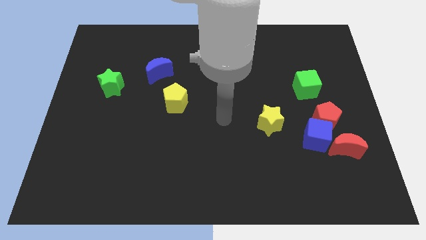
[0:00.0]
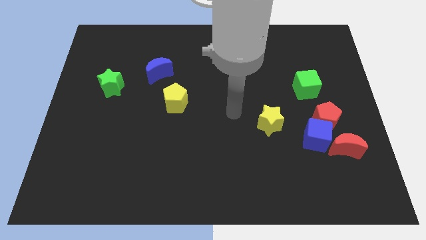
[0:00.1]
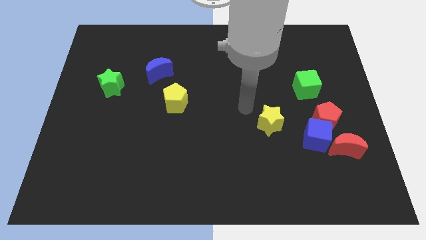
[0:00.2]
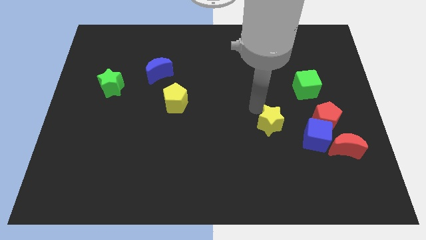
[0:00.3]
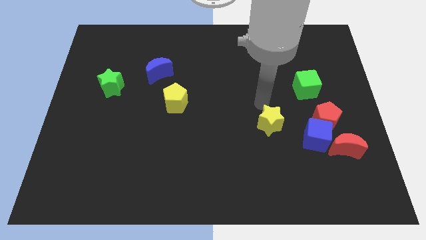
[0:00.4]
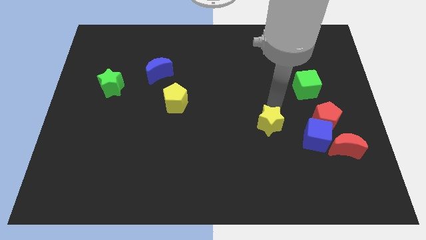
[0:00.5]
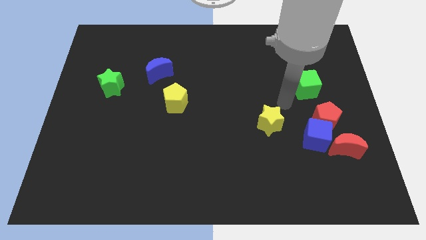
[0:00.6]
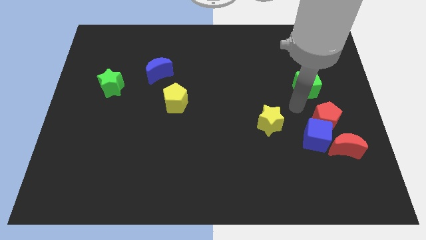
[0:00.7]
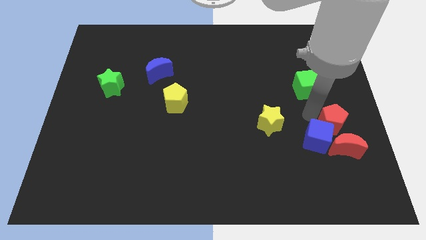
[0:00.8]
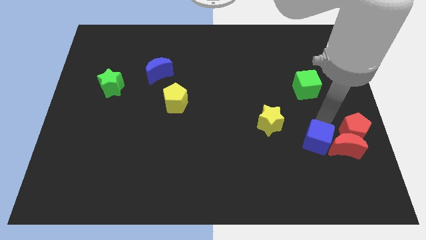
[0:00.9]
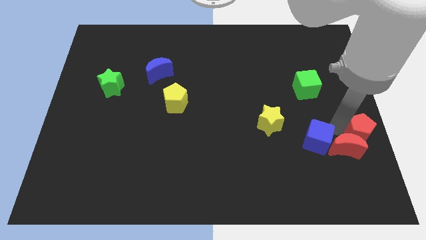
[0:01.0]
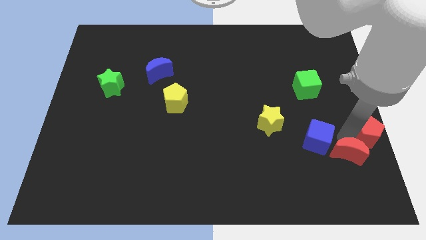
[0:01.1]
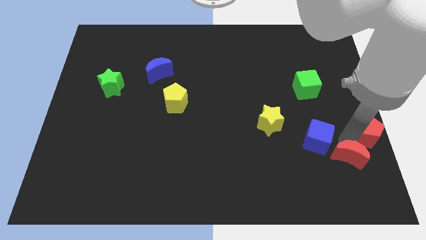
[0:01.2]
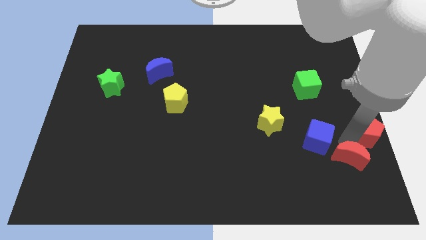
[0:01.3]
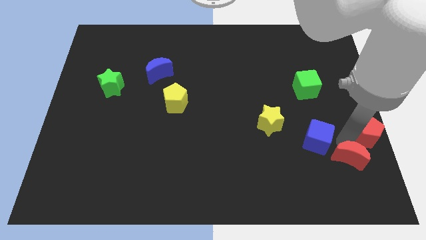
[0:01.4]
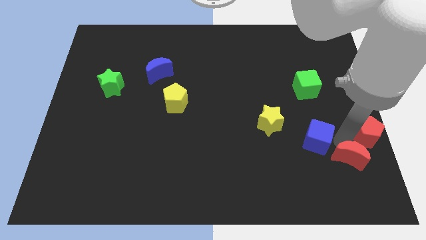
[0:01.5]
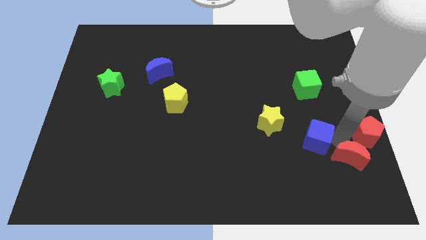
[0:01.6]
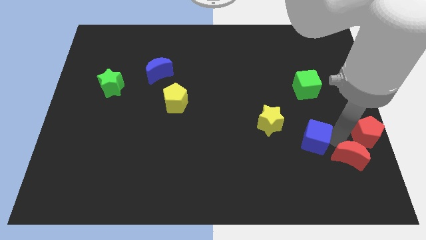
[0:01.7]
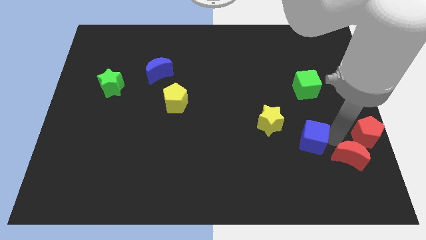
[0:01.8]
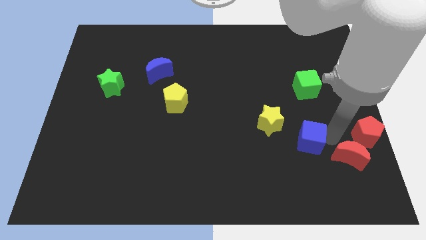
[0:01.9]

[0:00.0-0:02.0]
separate the blue cube from the red pentagon and red moon

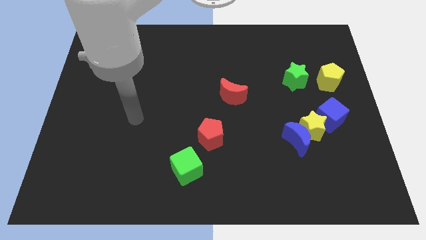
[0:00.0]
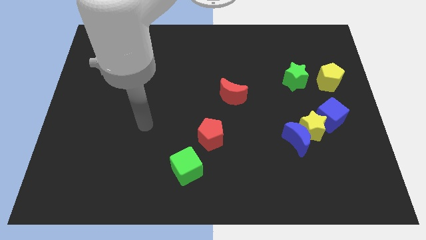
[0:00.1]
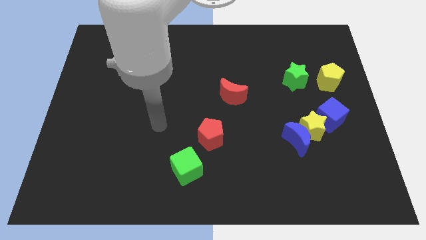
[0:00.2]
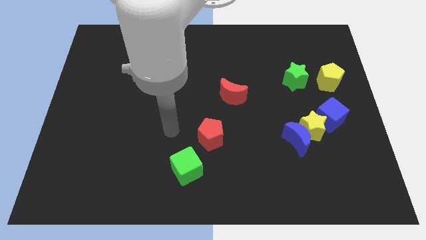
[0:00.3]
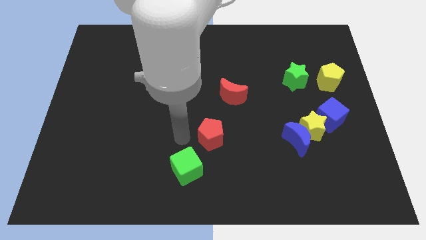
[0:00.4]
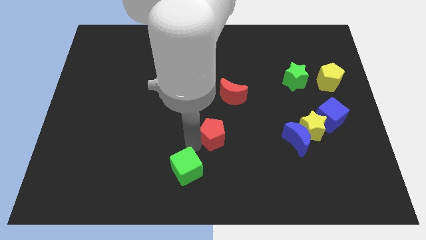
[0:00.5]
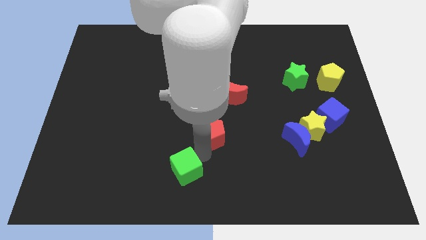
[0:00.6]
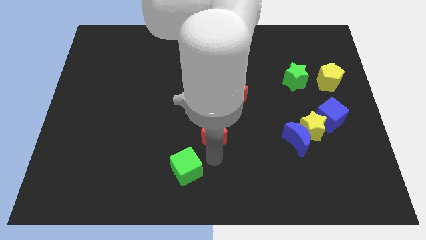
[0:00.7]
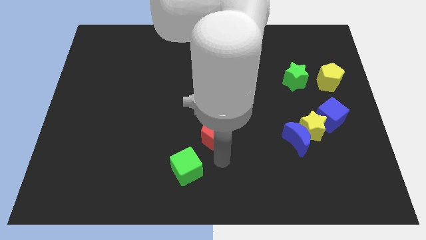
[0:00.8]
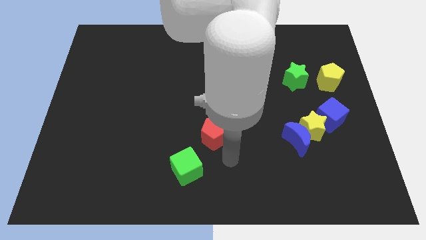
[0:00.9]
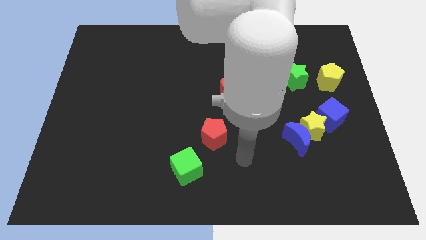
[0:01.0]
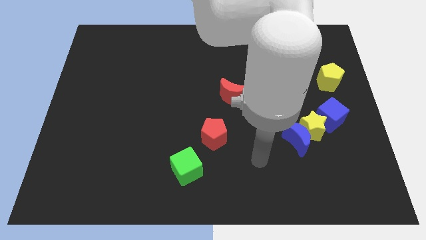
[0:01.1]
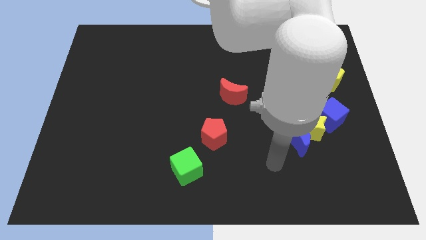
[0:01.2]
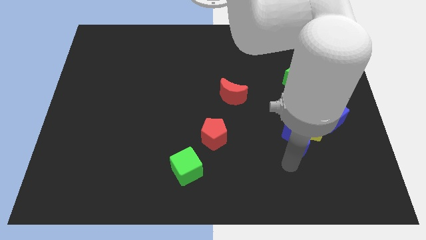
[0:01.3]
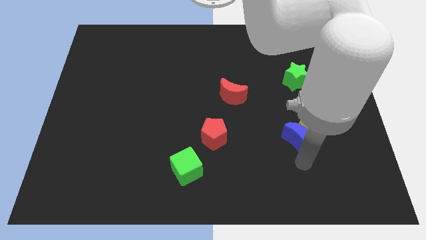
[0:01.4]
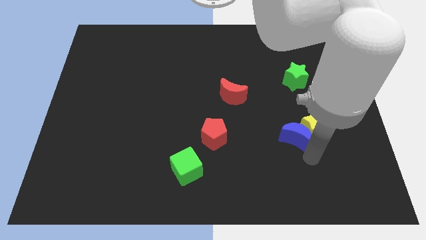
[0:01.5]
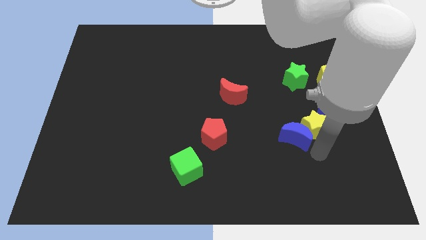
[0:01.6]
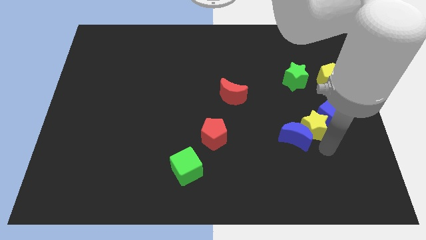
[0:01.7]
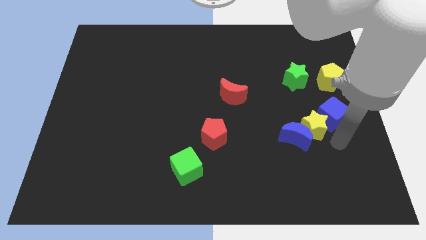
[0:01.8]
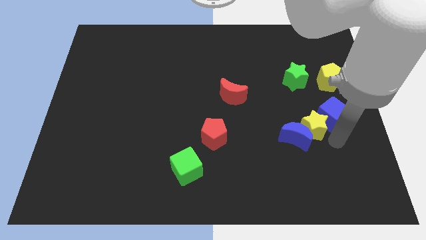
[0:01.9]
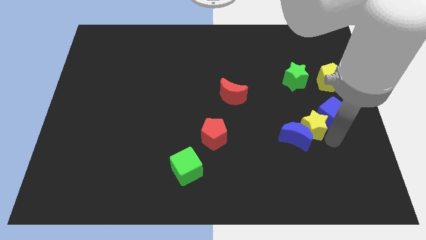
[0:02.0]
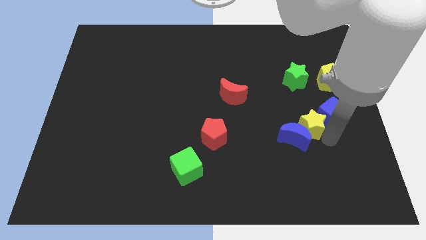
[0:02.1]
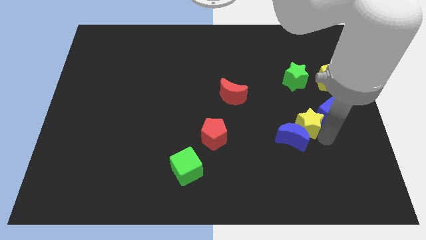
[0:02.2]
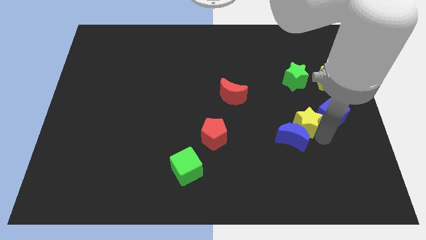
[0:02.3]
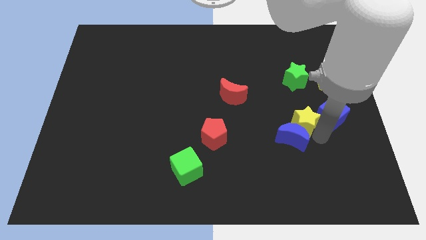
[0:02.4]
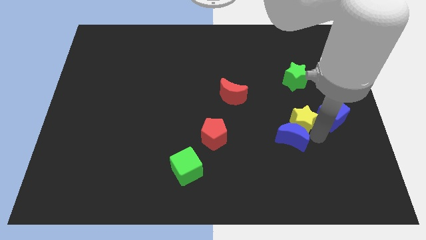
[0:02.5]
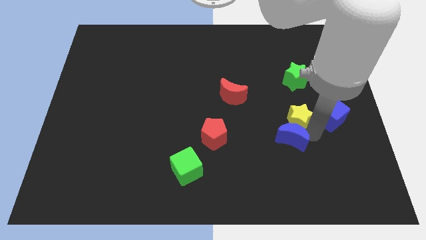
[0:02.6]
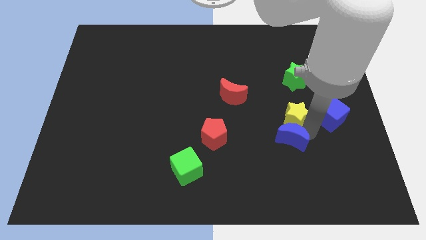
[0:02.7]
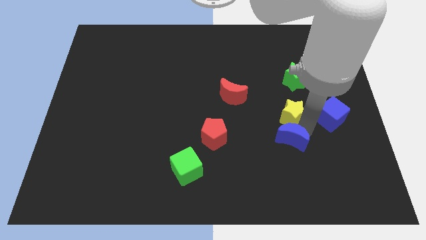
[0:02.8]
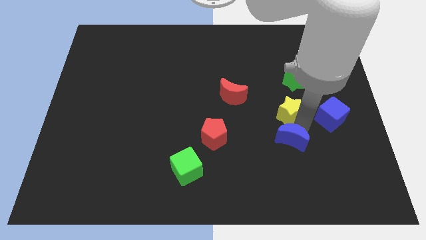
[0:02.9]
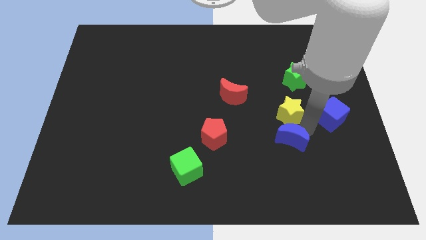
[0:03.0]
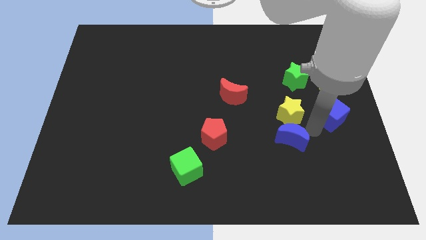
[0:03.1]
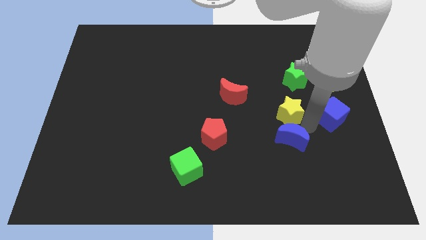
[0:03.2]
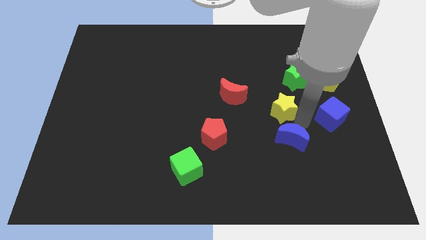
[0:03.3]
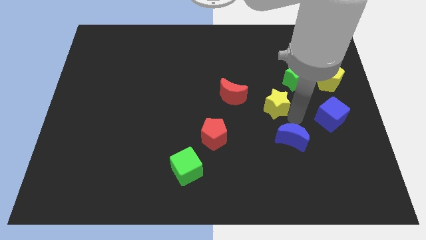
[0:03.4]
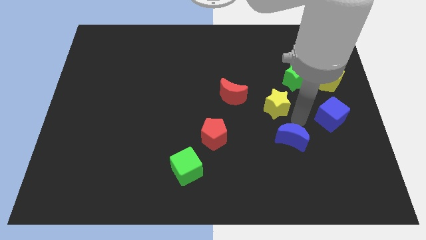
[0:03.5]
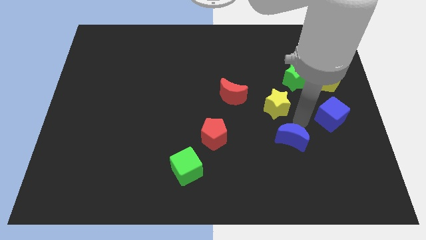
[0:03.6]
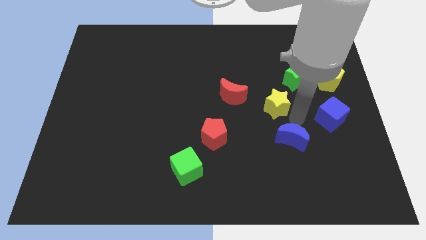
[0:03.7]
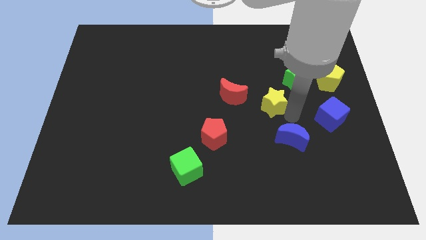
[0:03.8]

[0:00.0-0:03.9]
move the yellow star away from the blue moon and blue cube

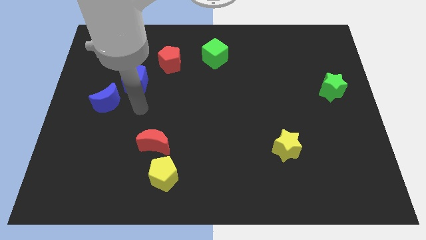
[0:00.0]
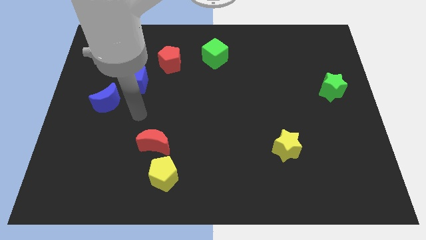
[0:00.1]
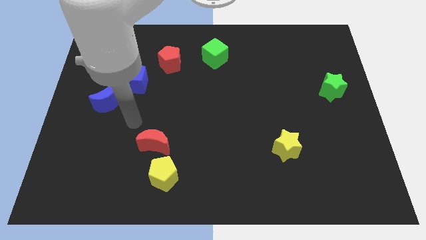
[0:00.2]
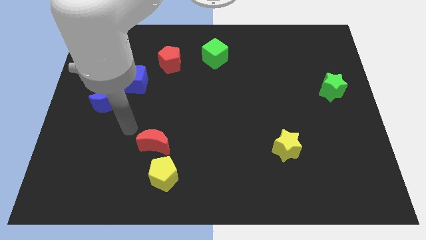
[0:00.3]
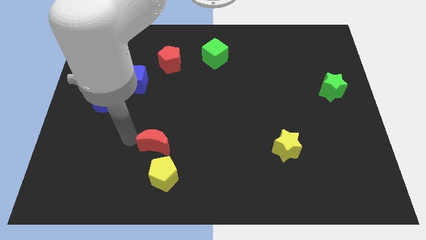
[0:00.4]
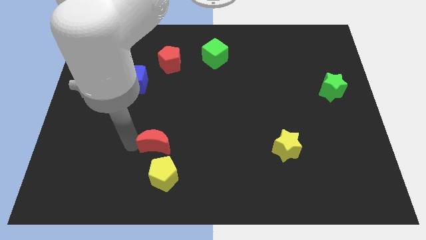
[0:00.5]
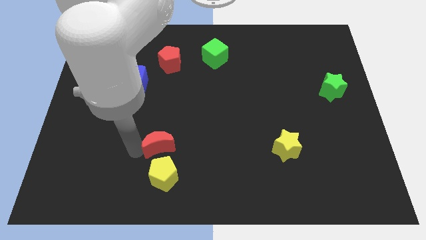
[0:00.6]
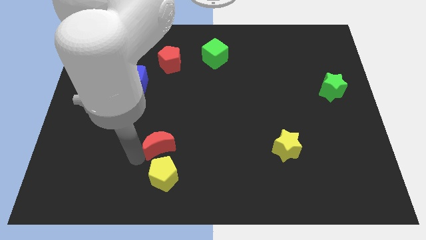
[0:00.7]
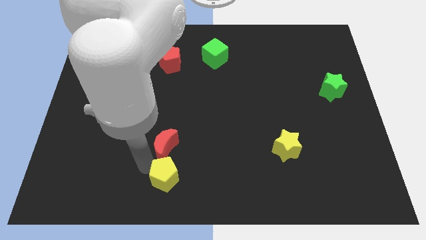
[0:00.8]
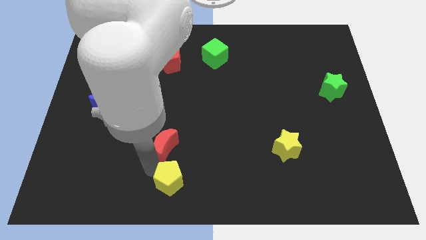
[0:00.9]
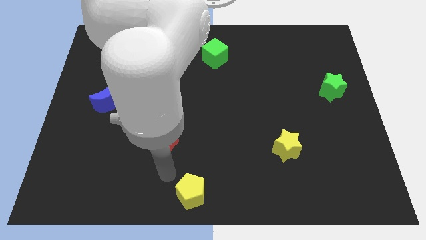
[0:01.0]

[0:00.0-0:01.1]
pull the red moon apart from the yellow pentagon

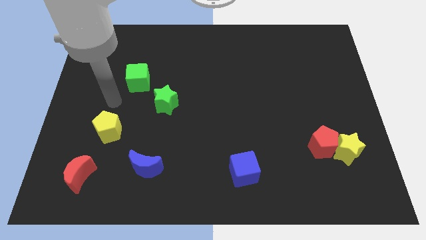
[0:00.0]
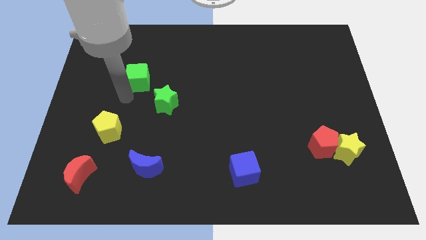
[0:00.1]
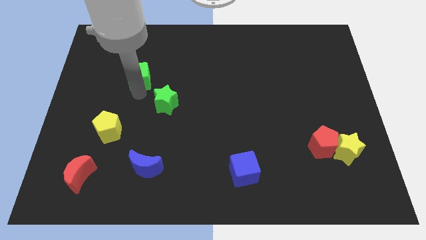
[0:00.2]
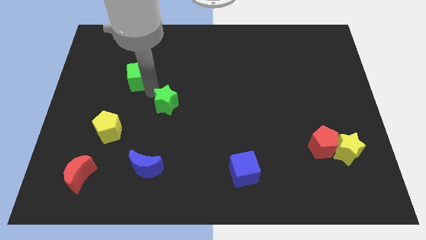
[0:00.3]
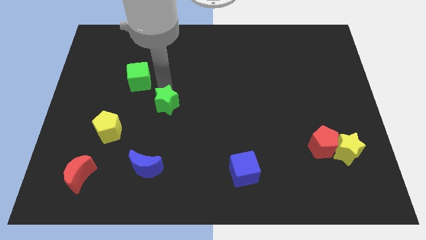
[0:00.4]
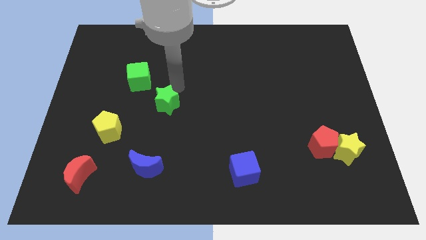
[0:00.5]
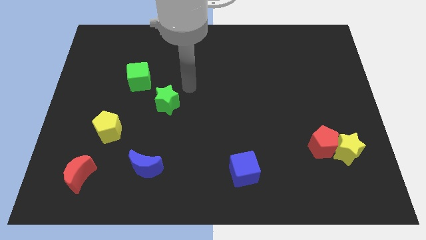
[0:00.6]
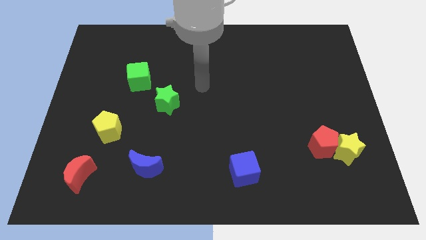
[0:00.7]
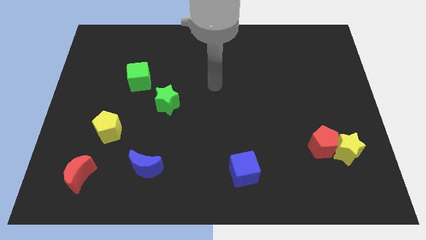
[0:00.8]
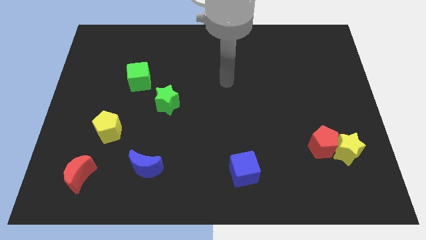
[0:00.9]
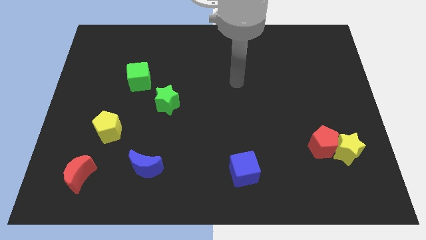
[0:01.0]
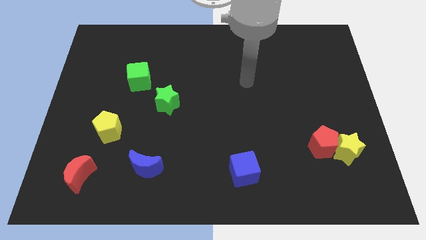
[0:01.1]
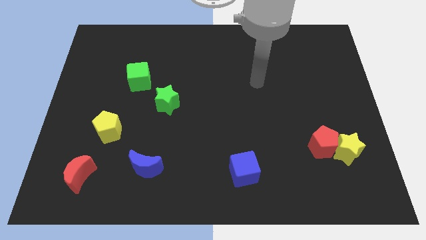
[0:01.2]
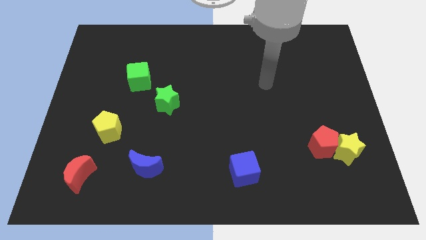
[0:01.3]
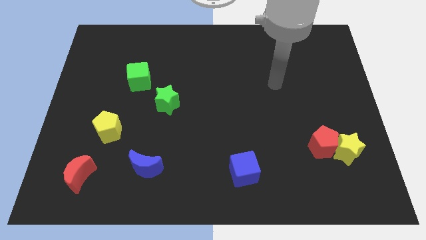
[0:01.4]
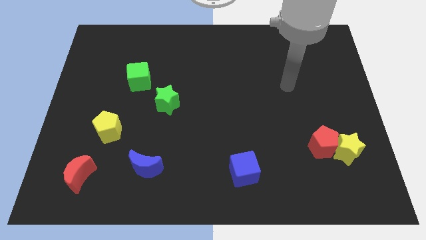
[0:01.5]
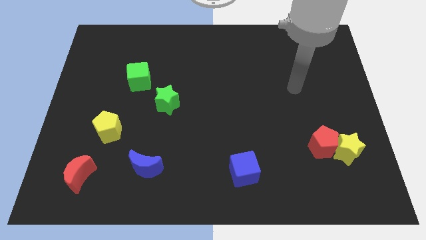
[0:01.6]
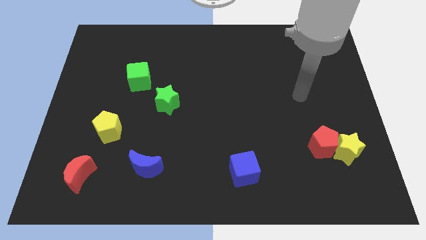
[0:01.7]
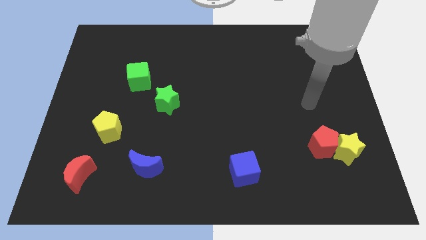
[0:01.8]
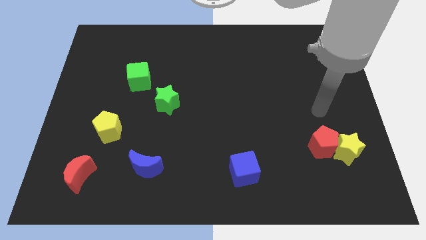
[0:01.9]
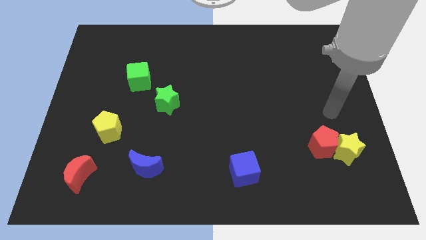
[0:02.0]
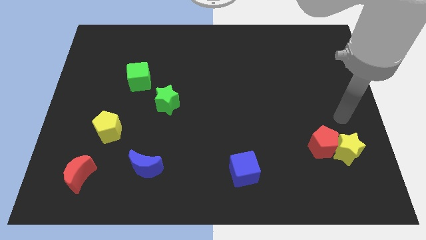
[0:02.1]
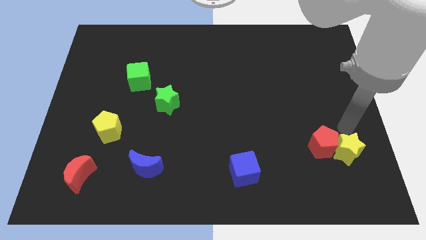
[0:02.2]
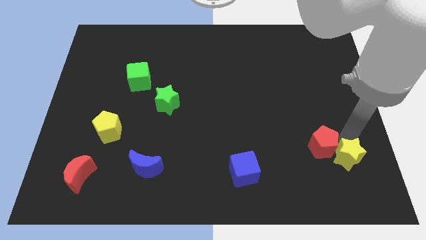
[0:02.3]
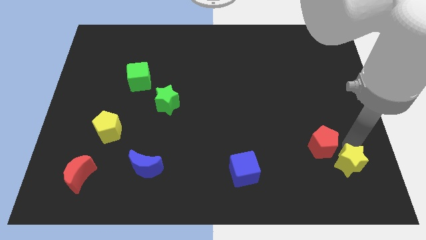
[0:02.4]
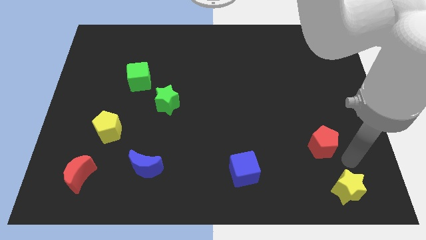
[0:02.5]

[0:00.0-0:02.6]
separate the red pentagon from the yellow star
